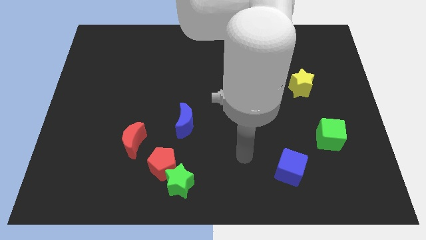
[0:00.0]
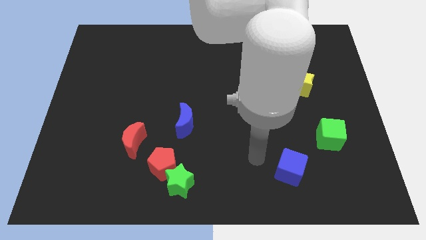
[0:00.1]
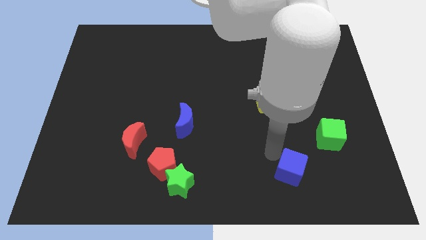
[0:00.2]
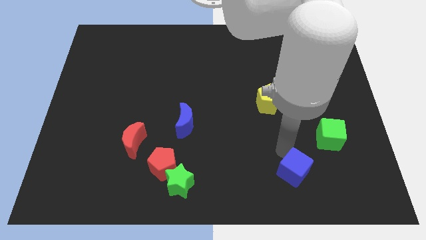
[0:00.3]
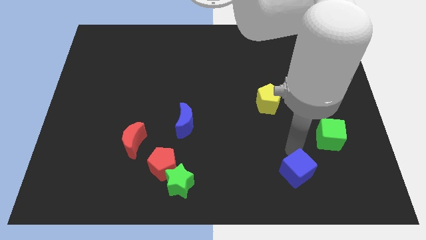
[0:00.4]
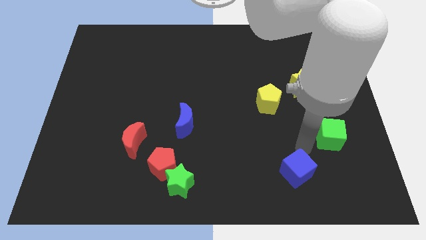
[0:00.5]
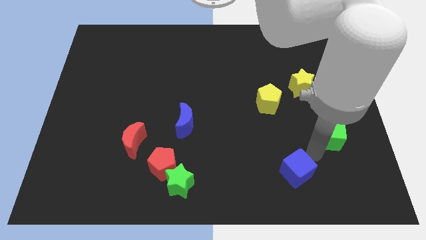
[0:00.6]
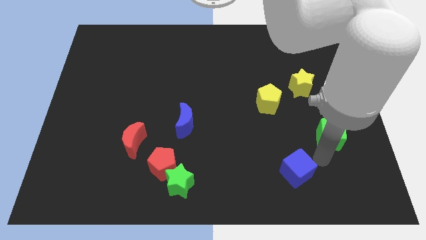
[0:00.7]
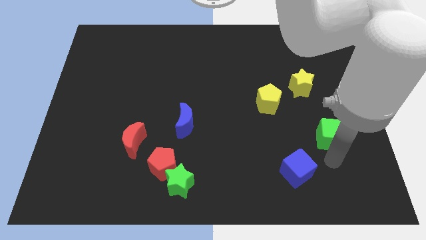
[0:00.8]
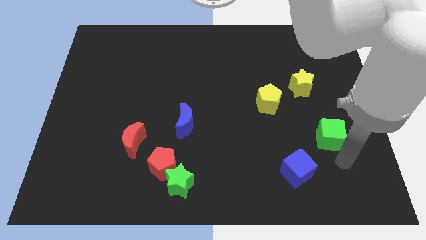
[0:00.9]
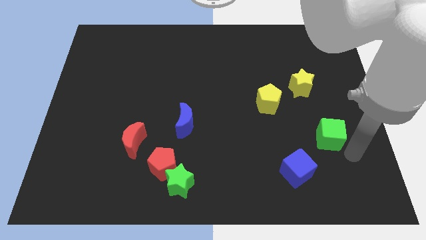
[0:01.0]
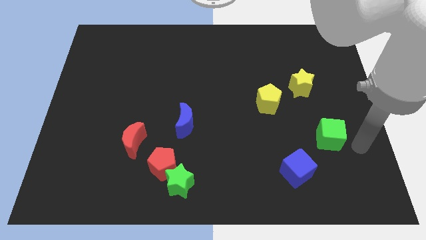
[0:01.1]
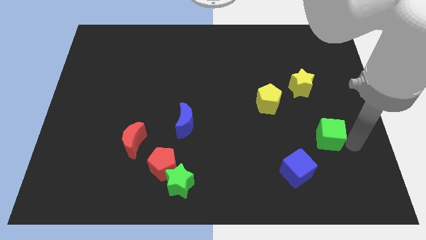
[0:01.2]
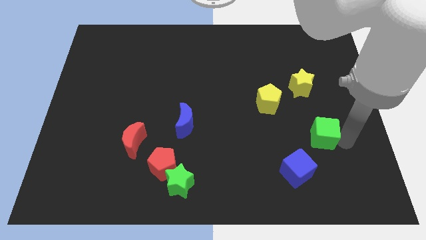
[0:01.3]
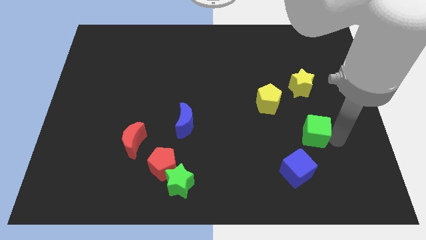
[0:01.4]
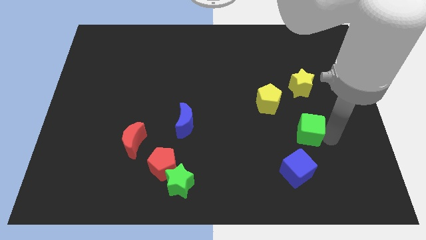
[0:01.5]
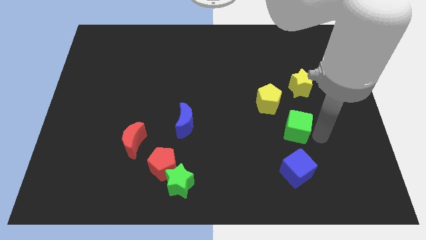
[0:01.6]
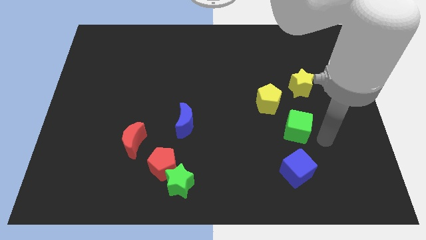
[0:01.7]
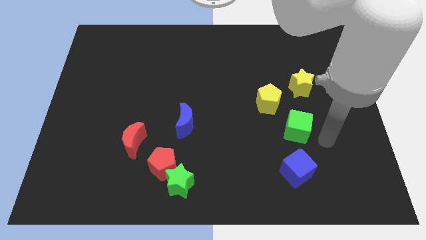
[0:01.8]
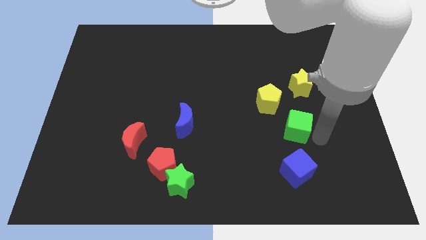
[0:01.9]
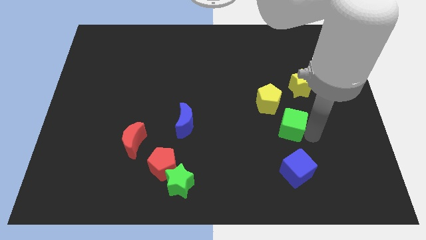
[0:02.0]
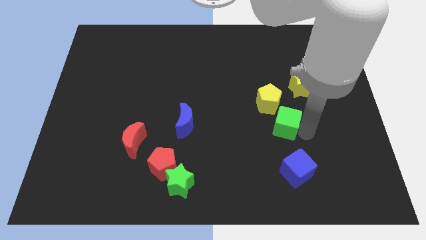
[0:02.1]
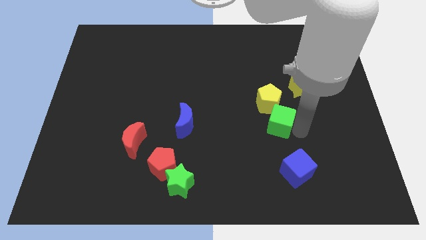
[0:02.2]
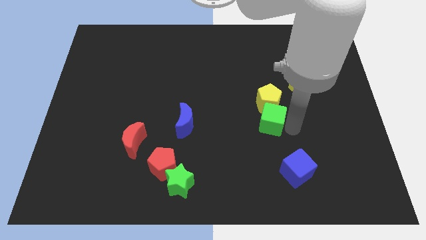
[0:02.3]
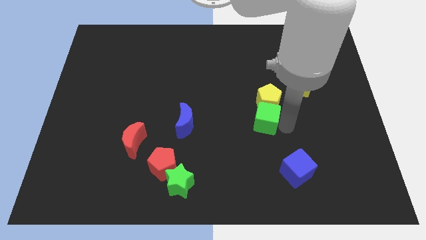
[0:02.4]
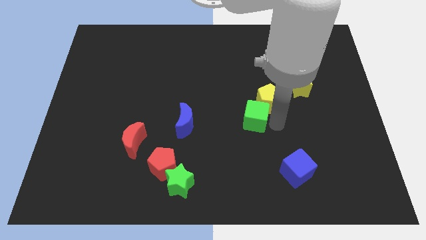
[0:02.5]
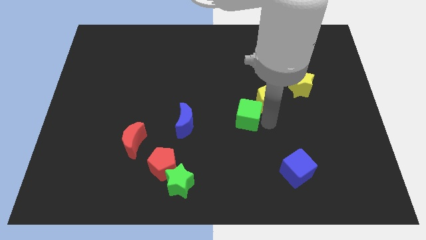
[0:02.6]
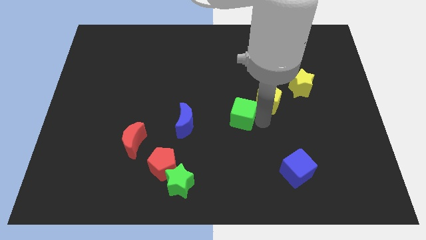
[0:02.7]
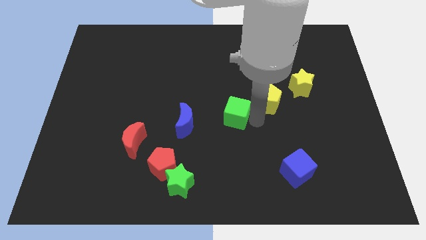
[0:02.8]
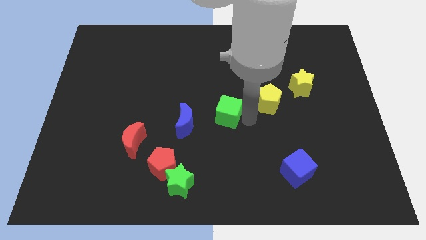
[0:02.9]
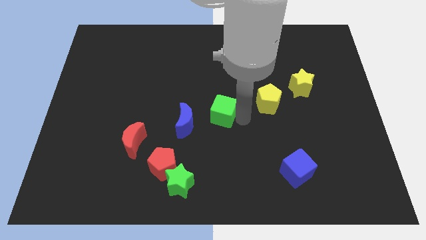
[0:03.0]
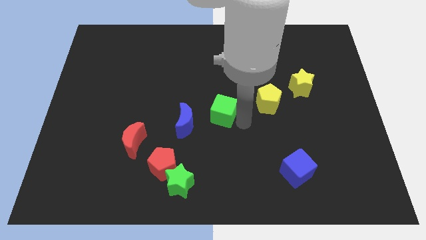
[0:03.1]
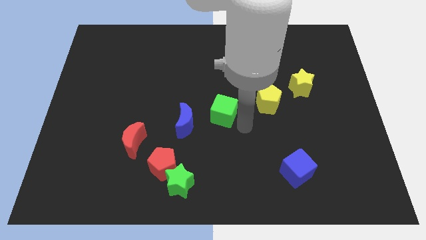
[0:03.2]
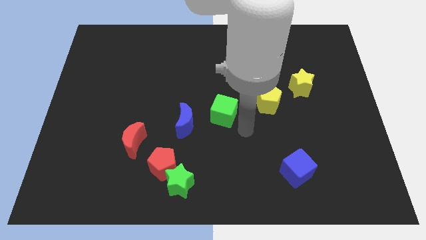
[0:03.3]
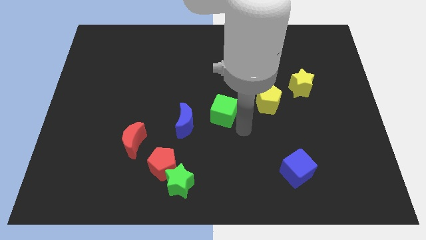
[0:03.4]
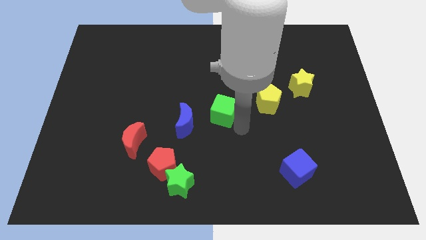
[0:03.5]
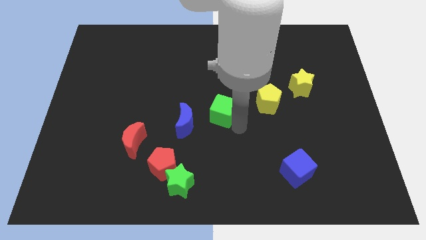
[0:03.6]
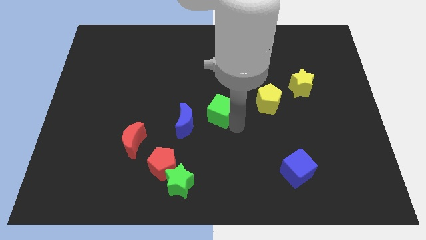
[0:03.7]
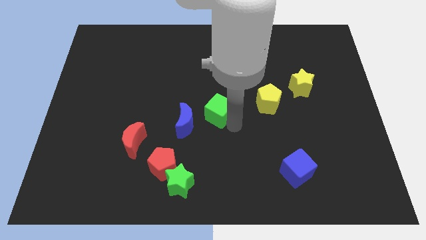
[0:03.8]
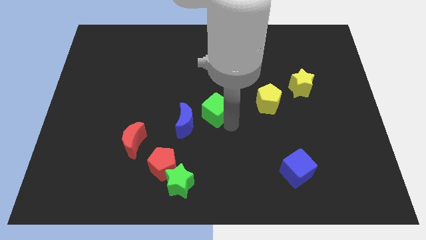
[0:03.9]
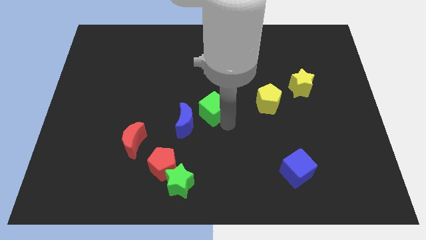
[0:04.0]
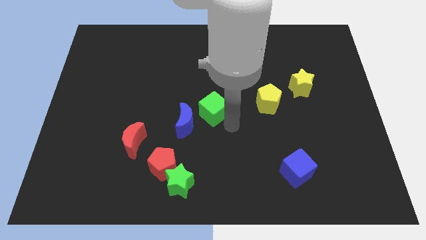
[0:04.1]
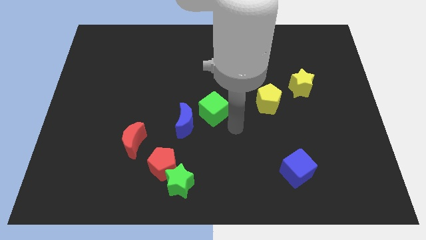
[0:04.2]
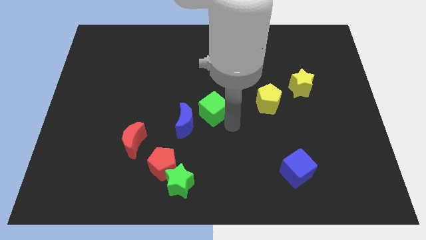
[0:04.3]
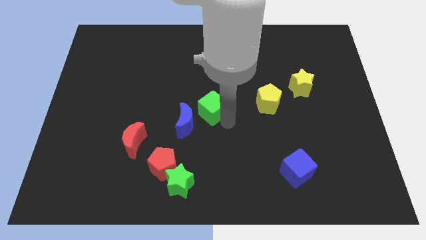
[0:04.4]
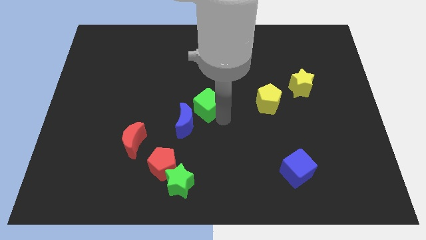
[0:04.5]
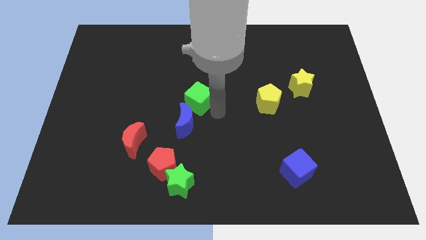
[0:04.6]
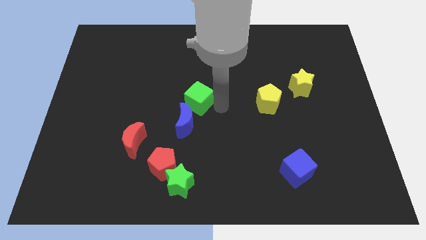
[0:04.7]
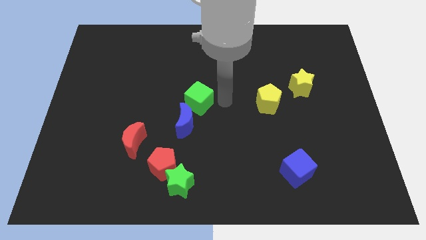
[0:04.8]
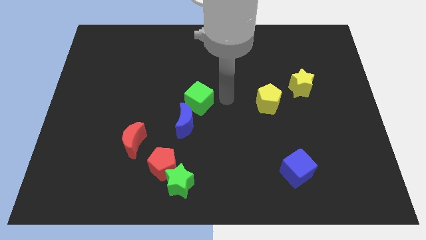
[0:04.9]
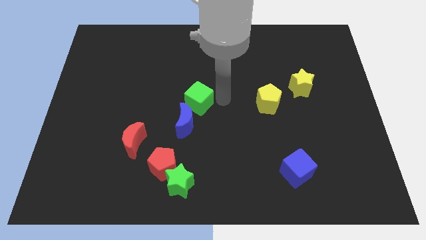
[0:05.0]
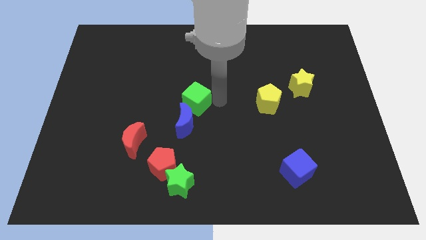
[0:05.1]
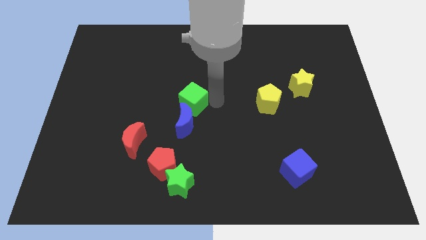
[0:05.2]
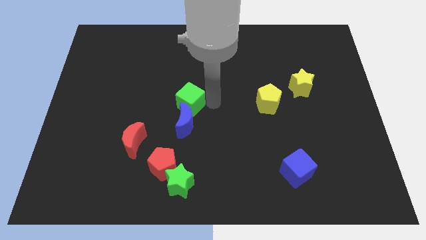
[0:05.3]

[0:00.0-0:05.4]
move the green cube to the top left of the blue moon

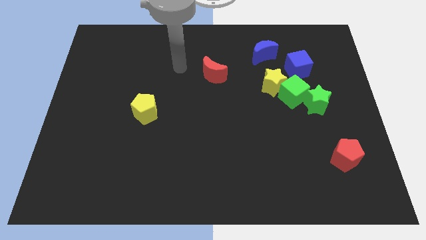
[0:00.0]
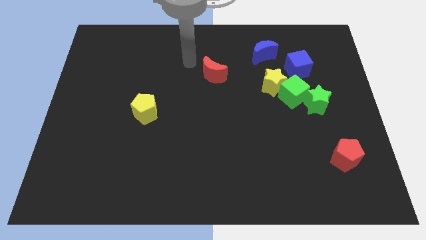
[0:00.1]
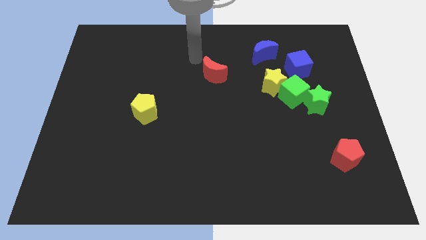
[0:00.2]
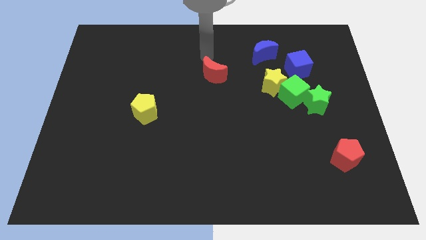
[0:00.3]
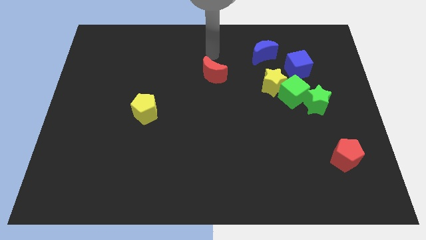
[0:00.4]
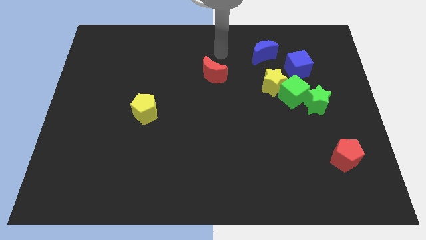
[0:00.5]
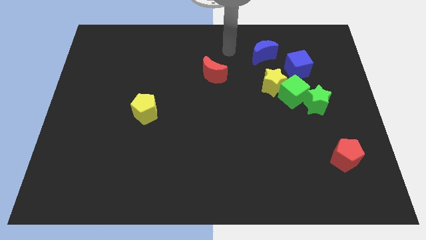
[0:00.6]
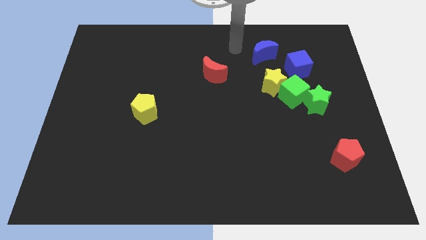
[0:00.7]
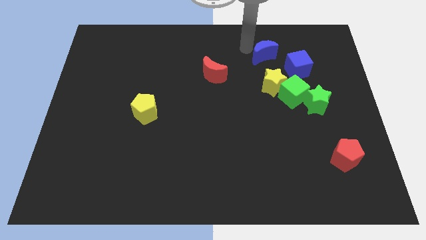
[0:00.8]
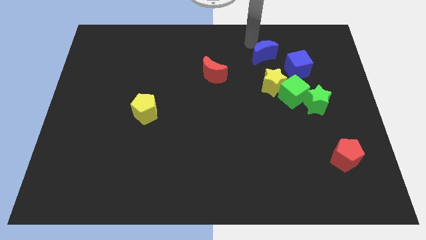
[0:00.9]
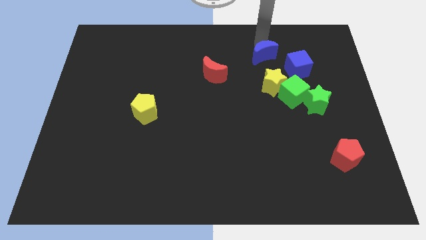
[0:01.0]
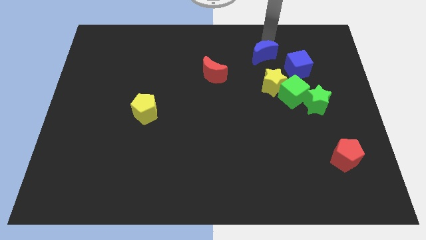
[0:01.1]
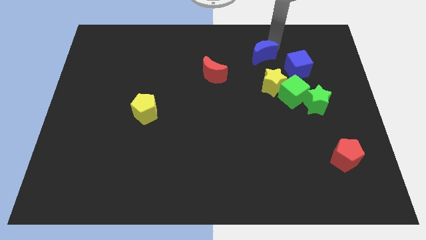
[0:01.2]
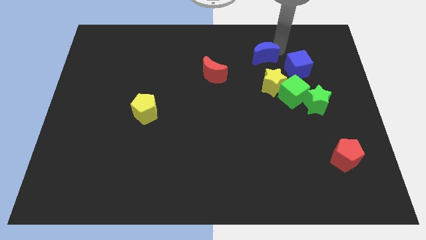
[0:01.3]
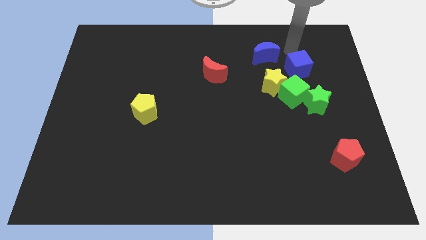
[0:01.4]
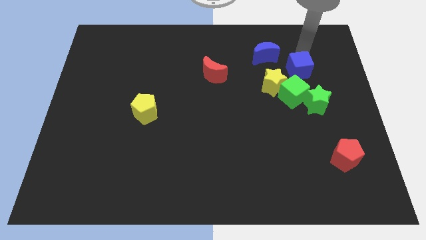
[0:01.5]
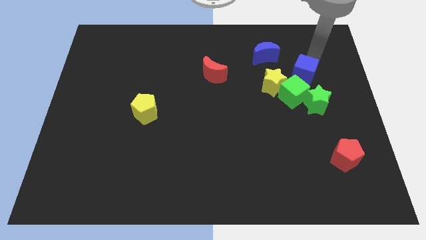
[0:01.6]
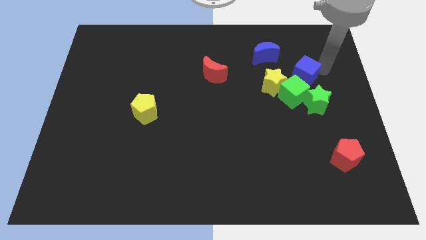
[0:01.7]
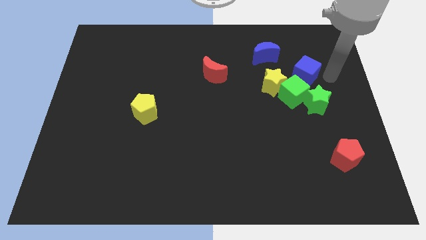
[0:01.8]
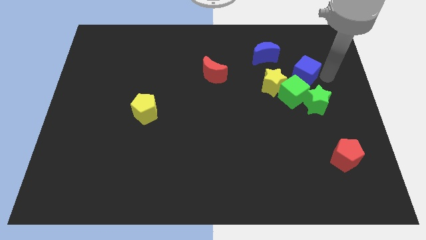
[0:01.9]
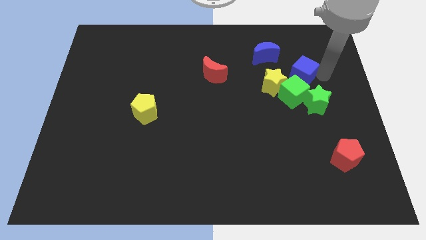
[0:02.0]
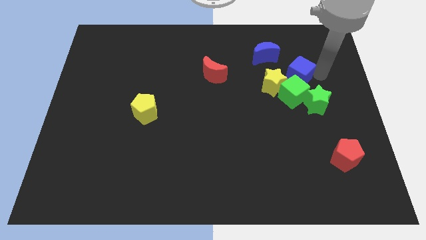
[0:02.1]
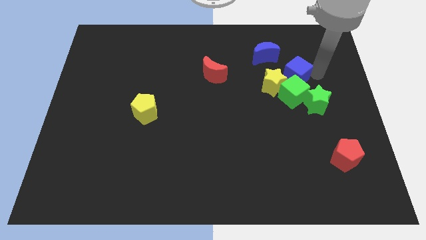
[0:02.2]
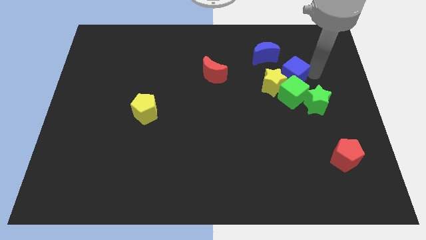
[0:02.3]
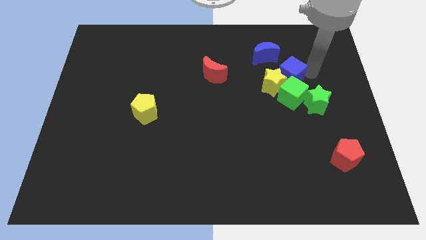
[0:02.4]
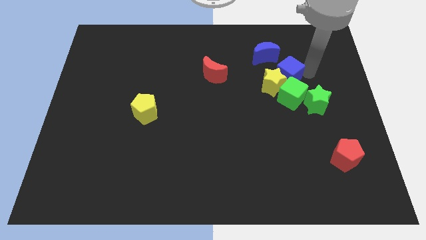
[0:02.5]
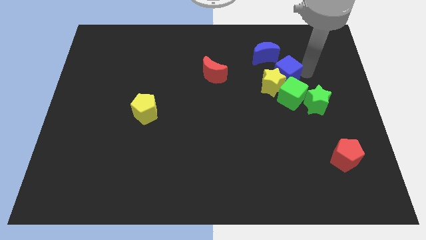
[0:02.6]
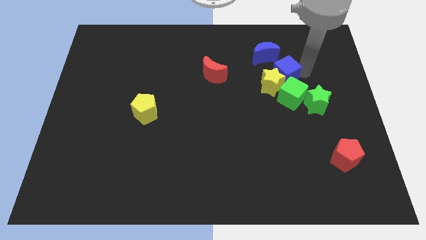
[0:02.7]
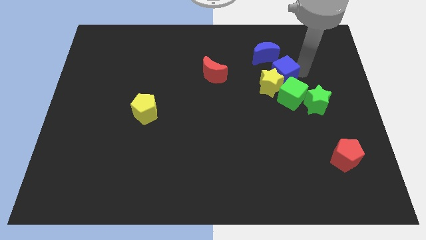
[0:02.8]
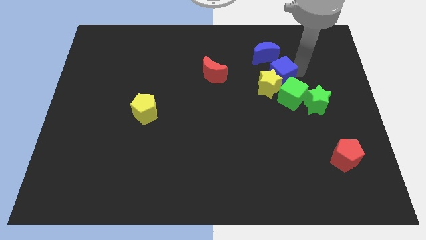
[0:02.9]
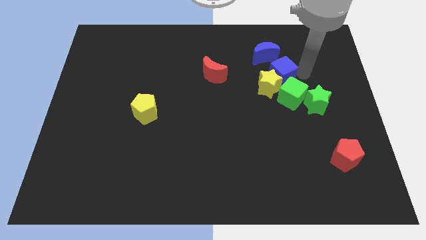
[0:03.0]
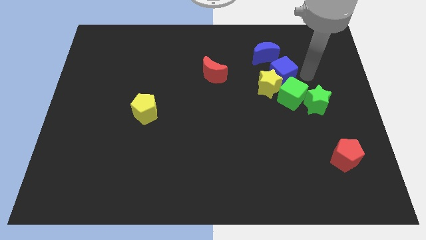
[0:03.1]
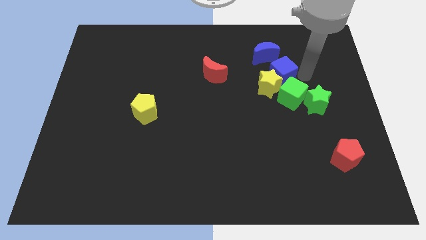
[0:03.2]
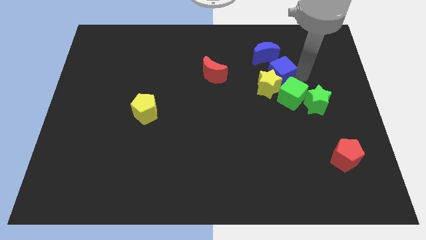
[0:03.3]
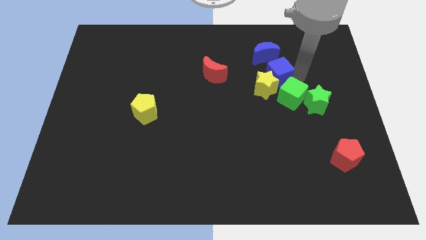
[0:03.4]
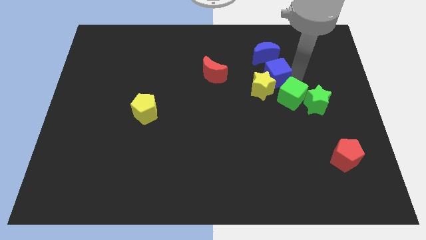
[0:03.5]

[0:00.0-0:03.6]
slide the blue cube just right of the red moon
